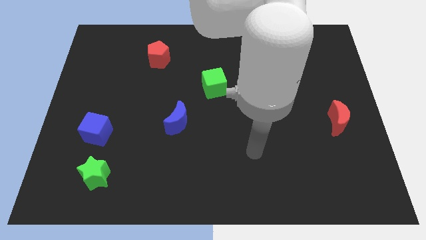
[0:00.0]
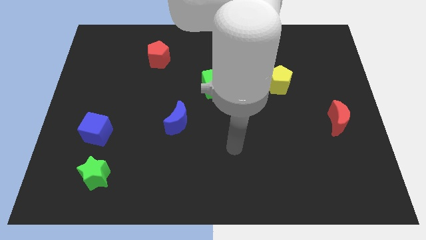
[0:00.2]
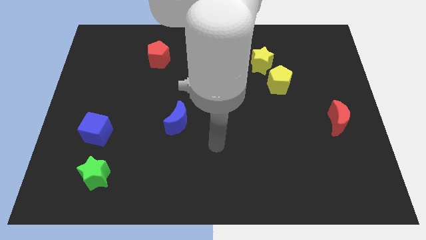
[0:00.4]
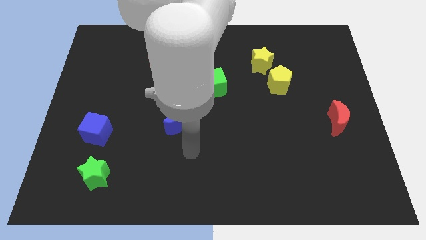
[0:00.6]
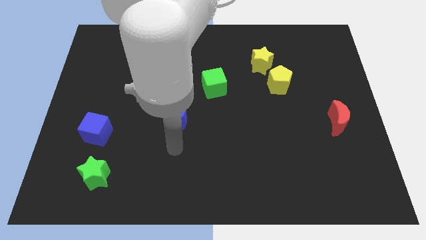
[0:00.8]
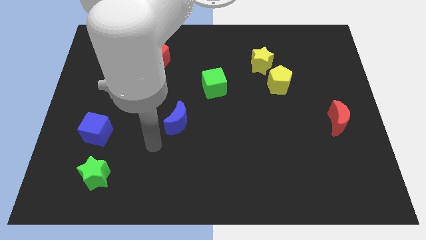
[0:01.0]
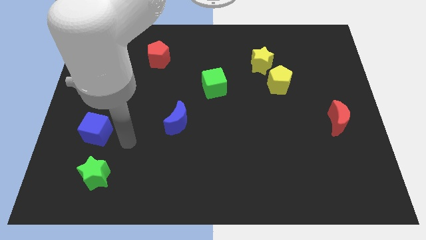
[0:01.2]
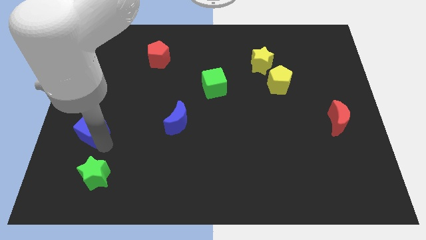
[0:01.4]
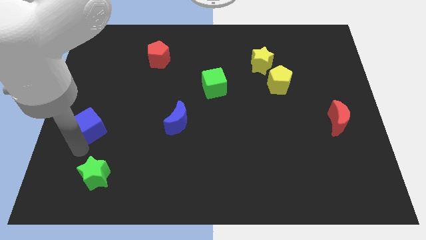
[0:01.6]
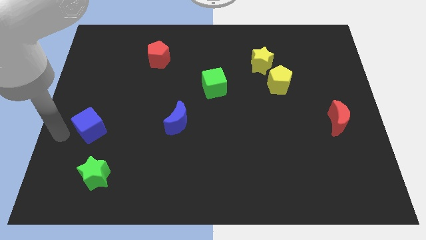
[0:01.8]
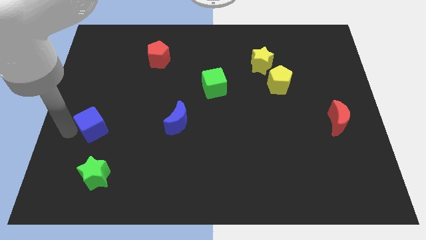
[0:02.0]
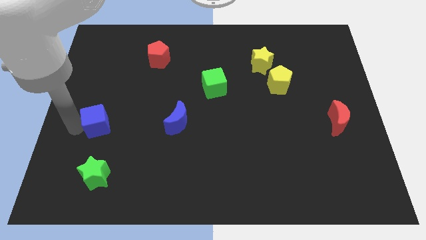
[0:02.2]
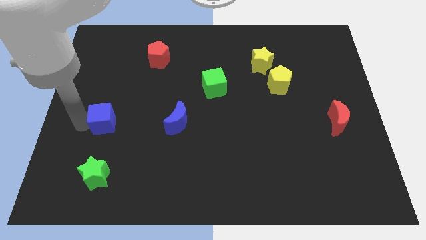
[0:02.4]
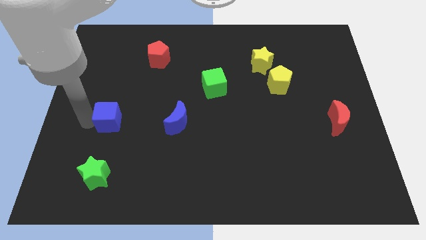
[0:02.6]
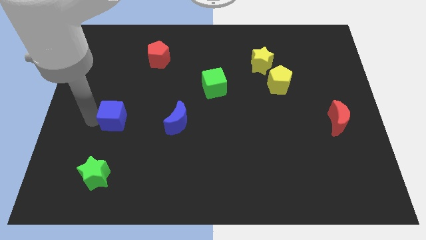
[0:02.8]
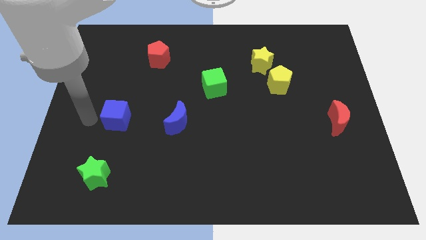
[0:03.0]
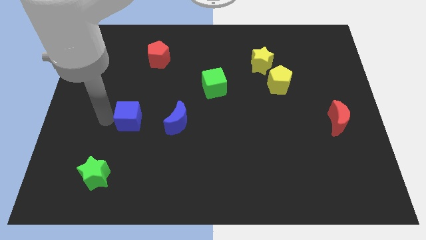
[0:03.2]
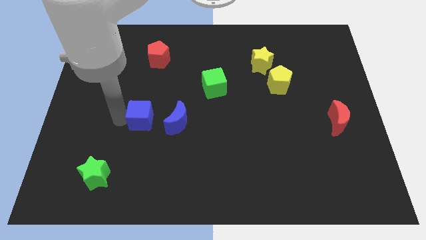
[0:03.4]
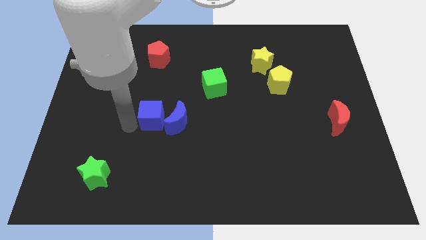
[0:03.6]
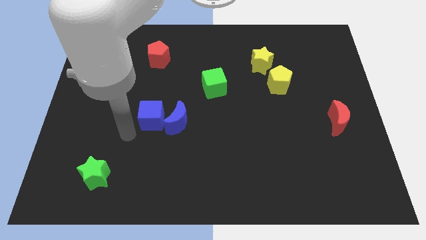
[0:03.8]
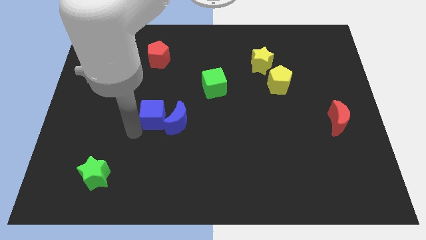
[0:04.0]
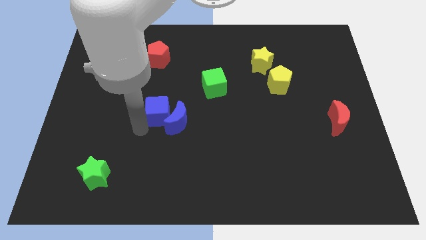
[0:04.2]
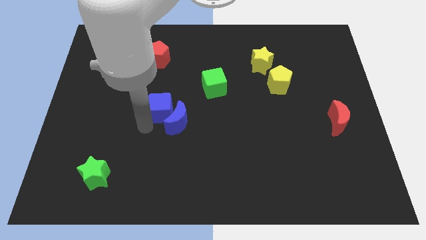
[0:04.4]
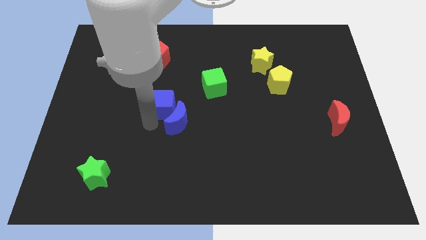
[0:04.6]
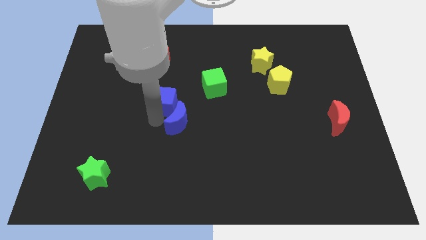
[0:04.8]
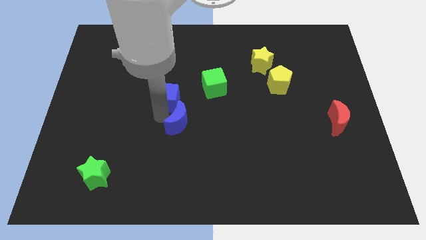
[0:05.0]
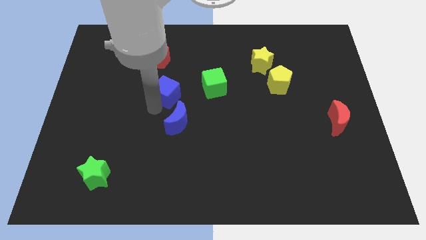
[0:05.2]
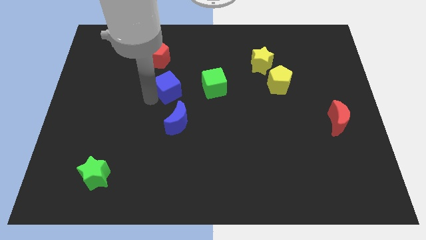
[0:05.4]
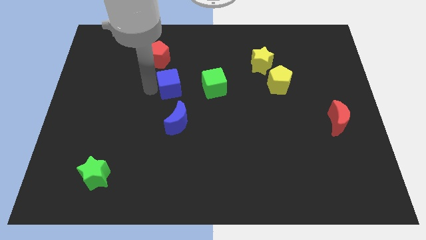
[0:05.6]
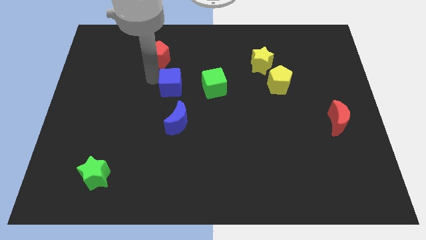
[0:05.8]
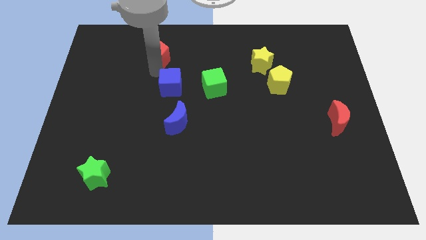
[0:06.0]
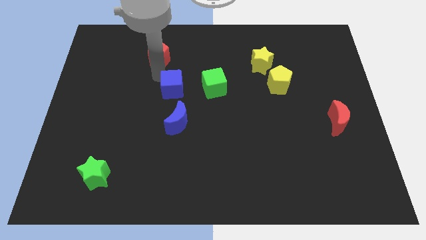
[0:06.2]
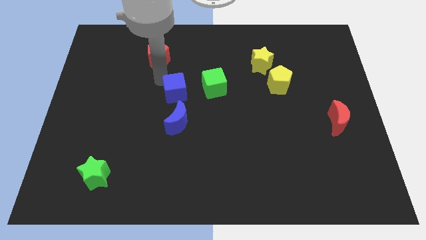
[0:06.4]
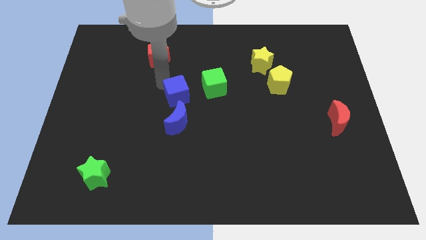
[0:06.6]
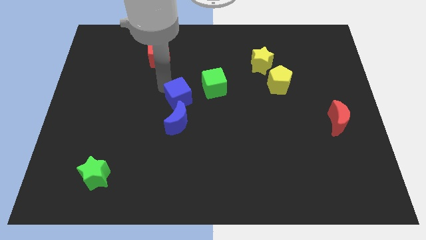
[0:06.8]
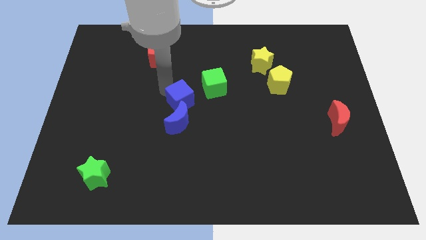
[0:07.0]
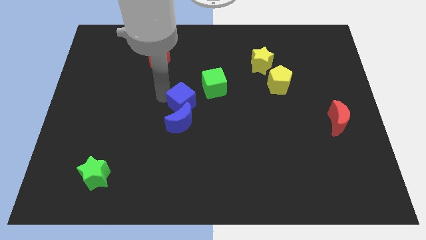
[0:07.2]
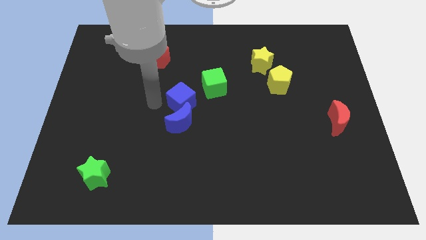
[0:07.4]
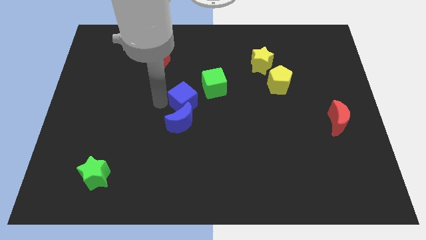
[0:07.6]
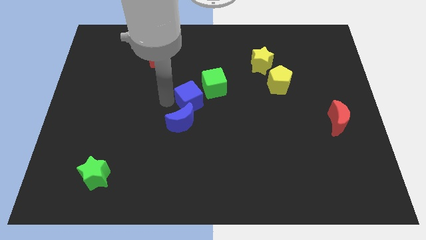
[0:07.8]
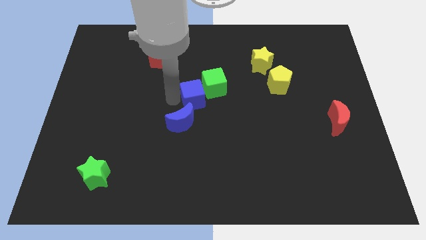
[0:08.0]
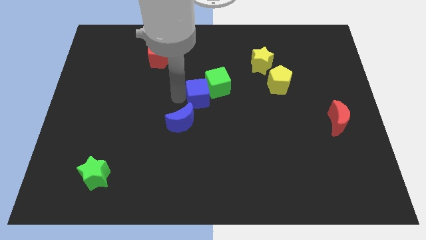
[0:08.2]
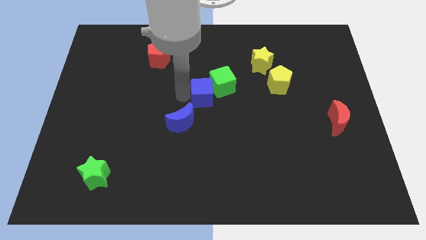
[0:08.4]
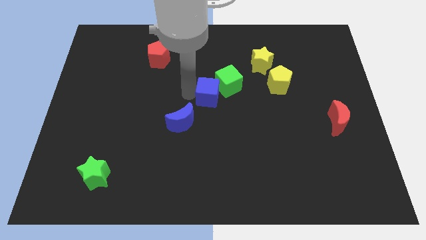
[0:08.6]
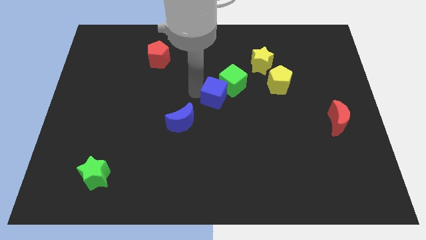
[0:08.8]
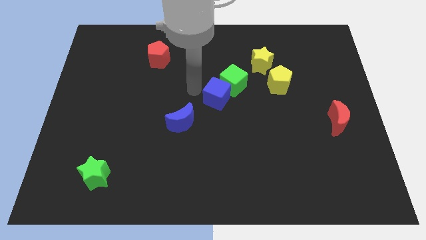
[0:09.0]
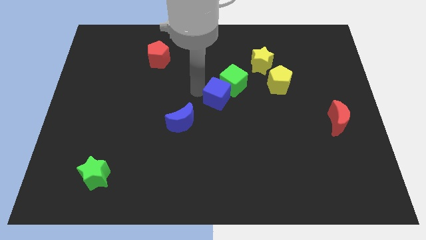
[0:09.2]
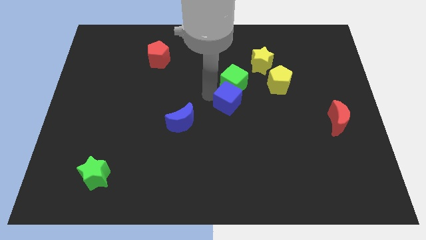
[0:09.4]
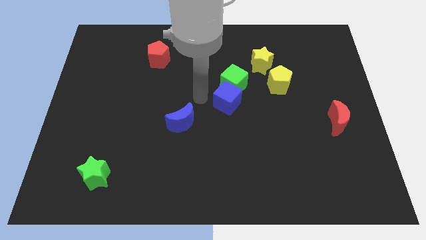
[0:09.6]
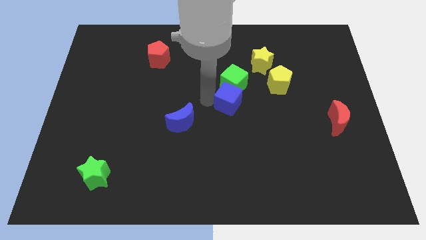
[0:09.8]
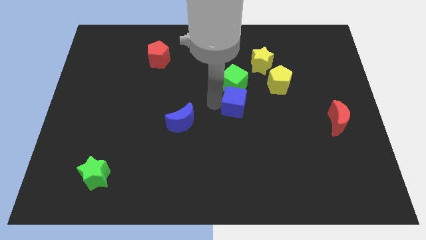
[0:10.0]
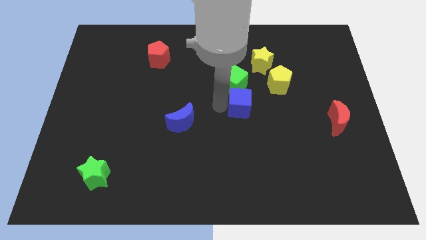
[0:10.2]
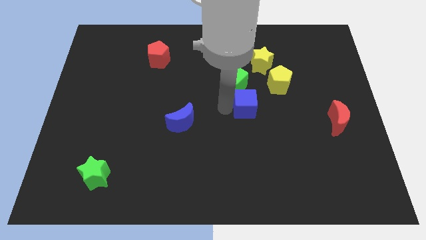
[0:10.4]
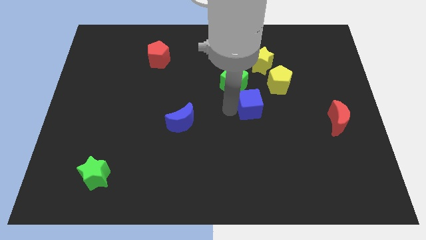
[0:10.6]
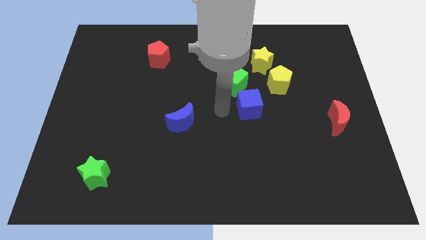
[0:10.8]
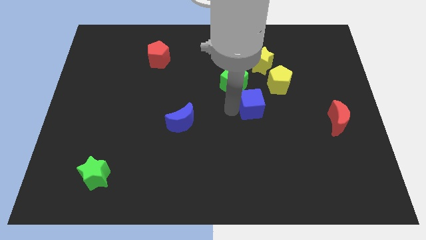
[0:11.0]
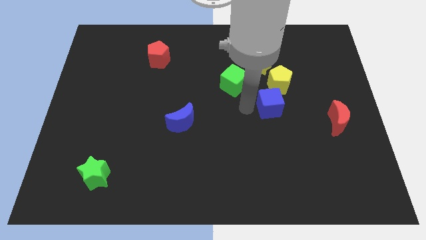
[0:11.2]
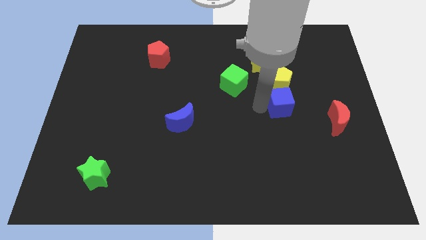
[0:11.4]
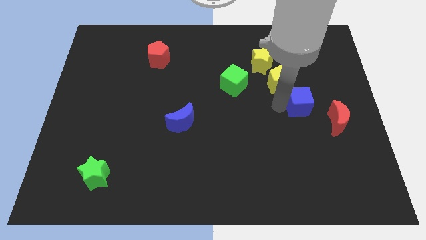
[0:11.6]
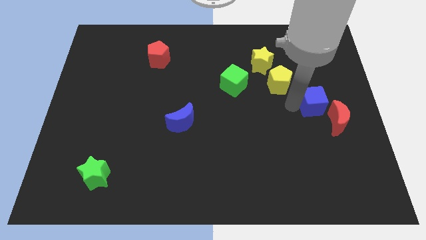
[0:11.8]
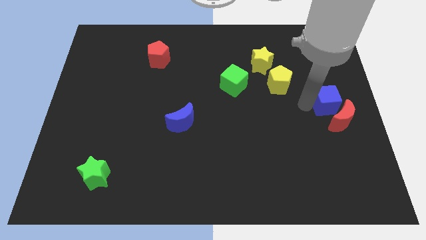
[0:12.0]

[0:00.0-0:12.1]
push the blue cube to the right side of the board

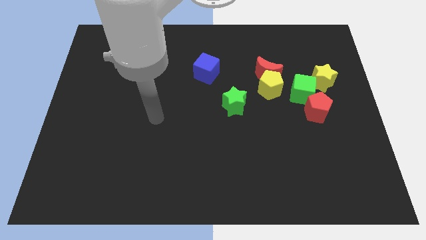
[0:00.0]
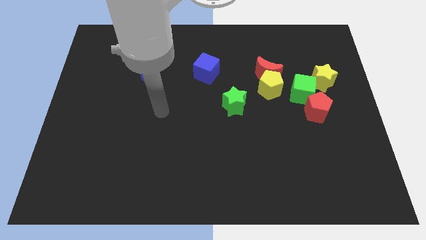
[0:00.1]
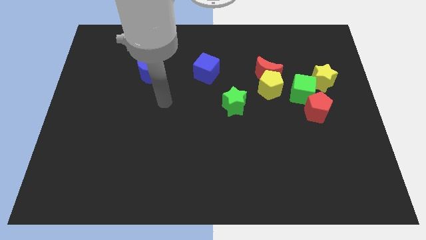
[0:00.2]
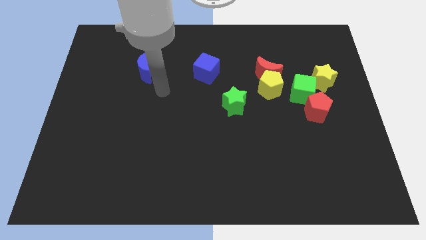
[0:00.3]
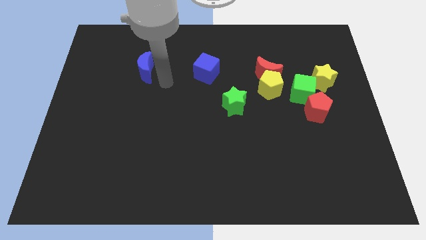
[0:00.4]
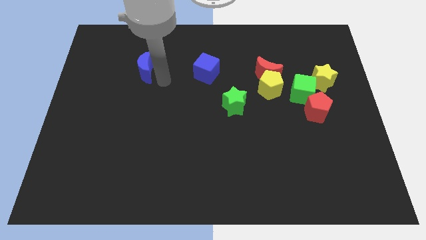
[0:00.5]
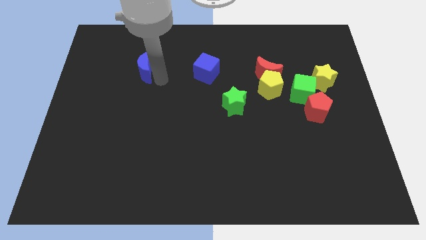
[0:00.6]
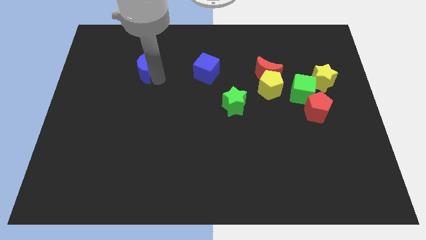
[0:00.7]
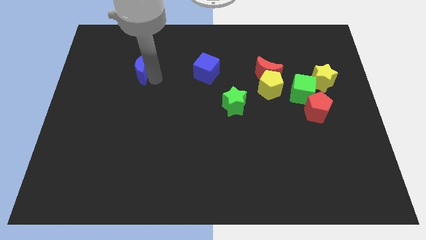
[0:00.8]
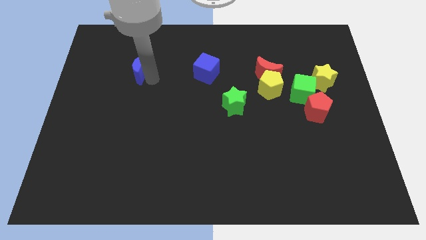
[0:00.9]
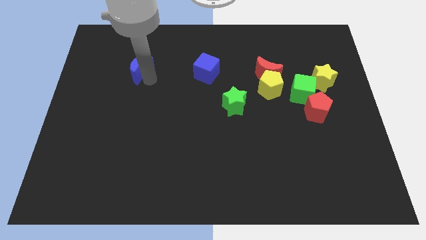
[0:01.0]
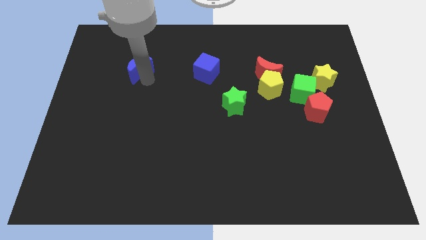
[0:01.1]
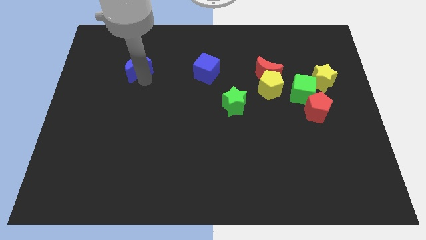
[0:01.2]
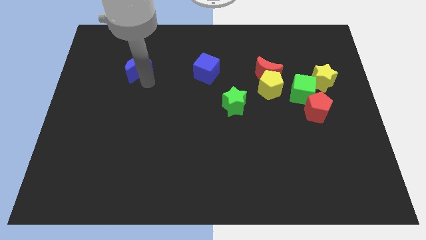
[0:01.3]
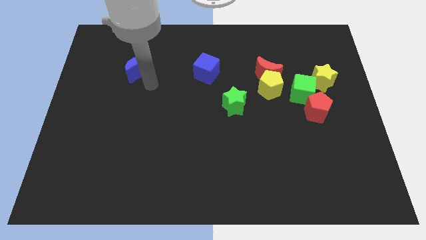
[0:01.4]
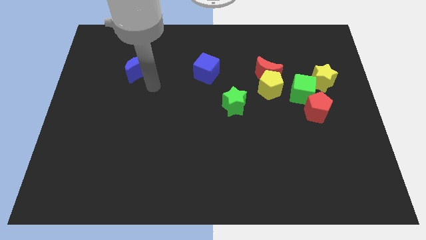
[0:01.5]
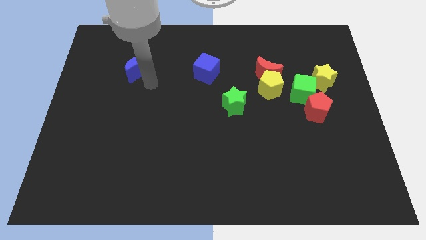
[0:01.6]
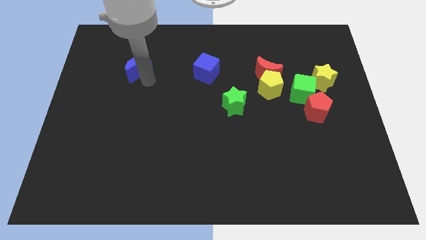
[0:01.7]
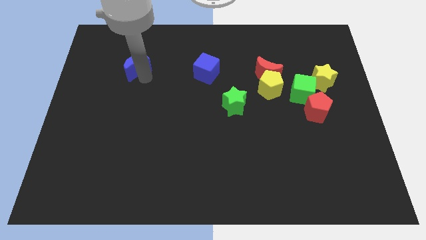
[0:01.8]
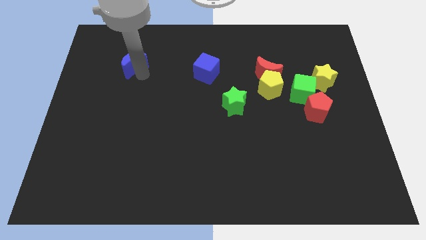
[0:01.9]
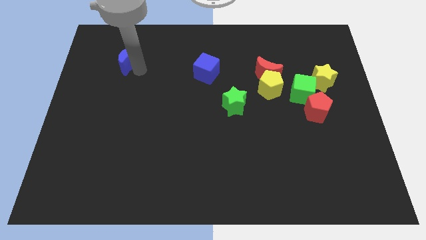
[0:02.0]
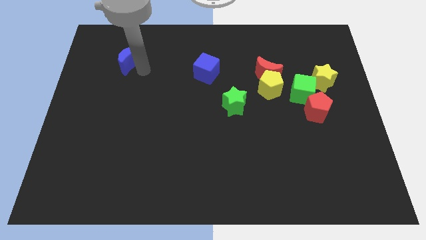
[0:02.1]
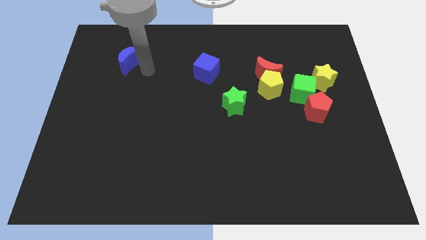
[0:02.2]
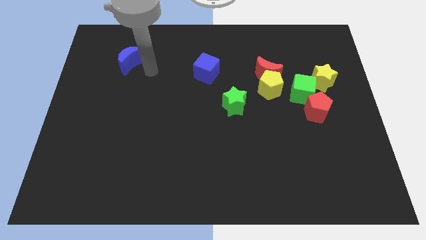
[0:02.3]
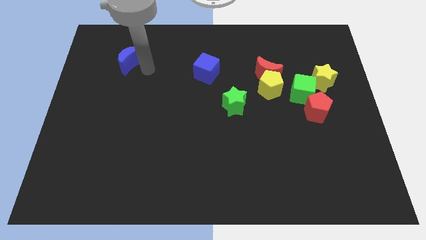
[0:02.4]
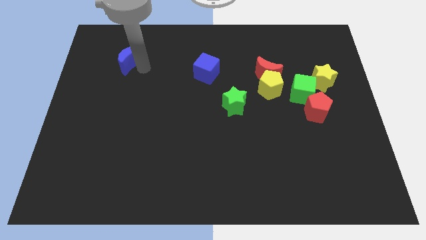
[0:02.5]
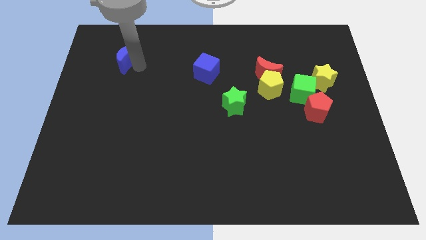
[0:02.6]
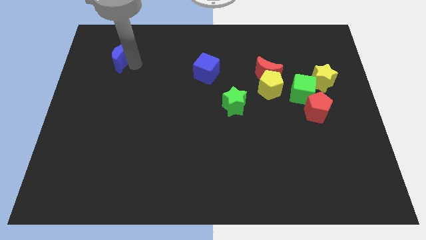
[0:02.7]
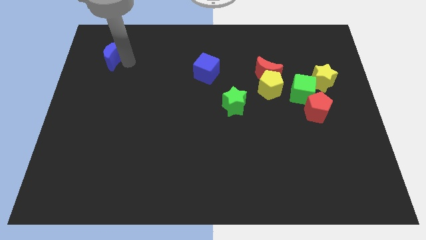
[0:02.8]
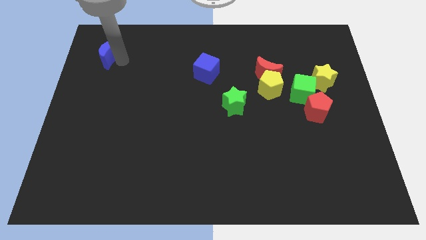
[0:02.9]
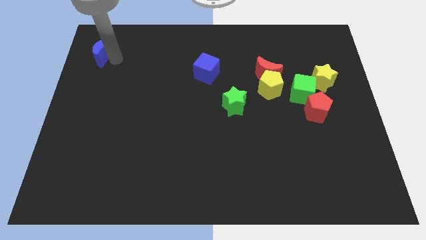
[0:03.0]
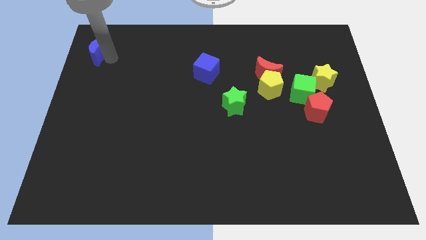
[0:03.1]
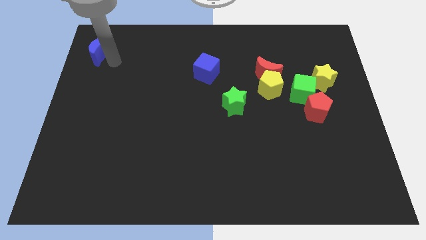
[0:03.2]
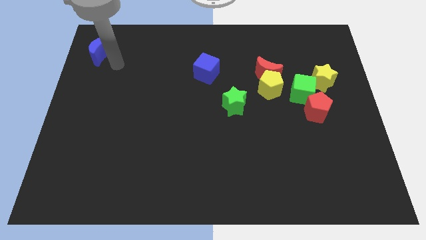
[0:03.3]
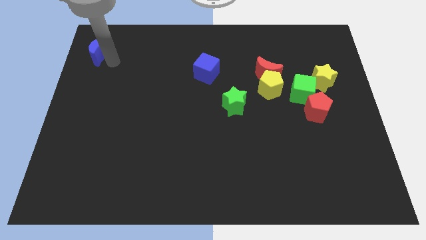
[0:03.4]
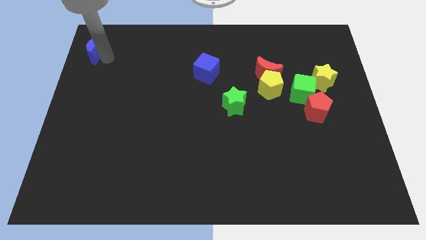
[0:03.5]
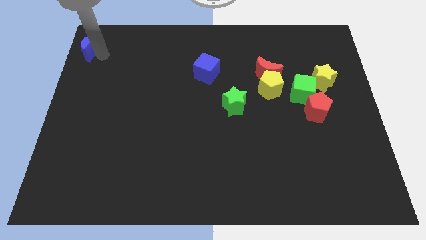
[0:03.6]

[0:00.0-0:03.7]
move the blue moon to the top left
